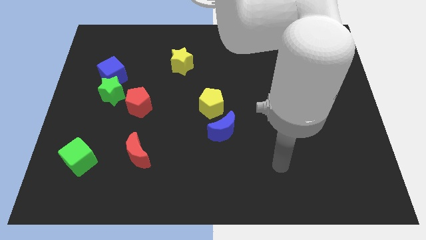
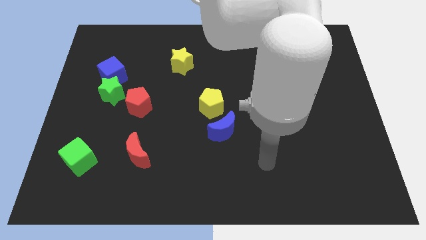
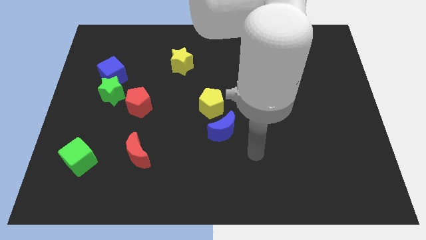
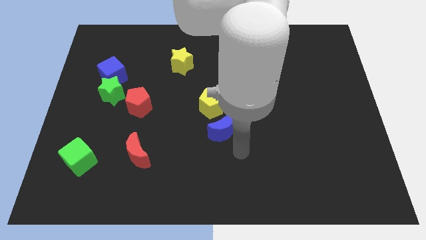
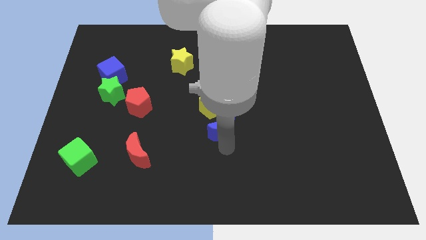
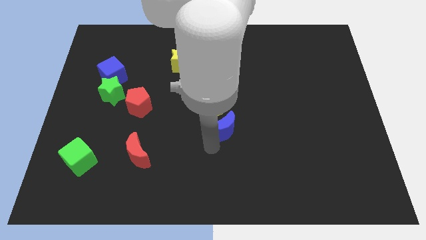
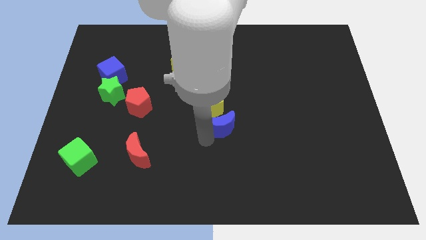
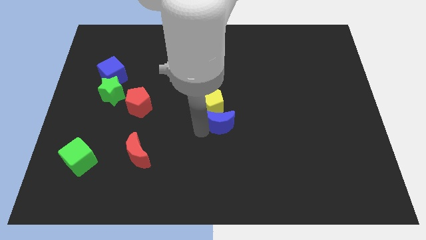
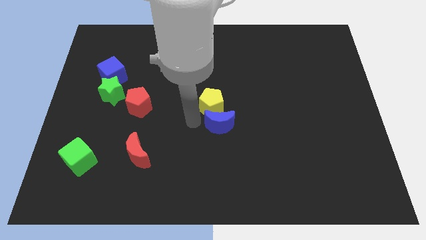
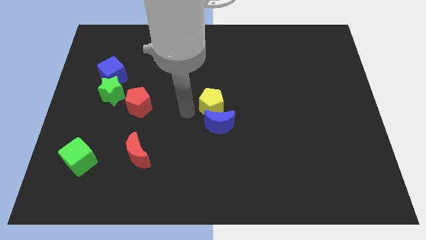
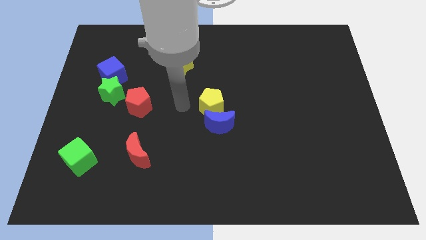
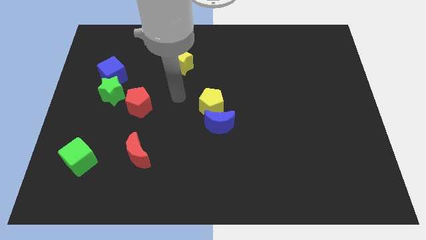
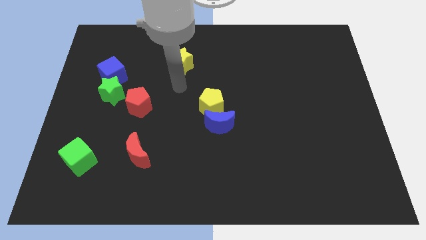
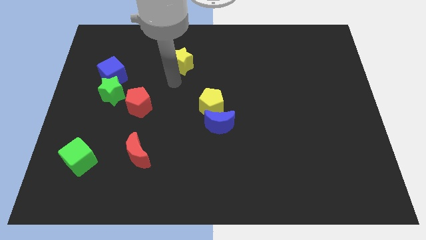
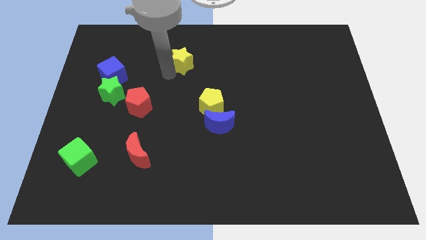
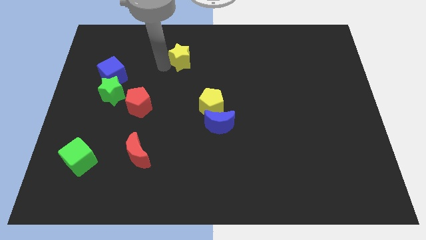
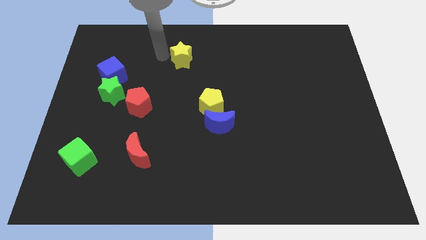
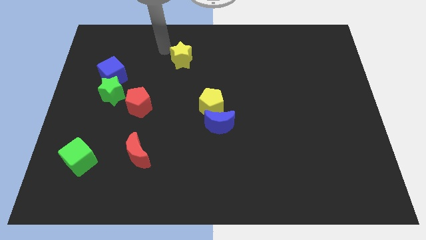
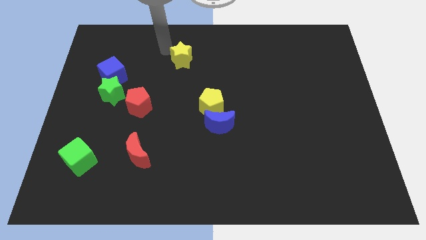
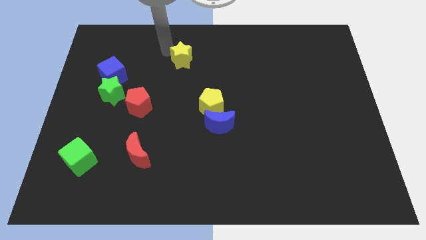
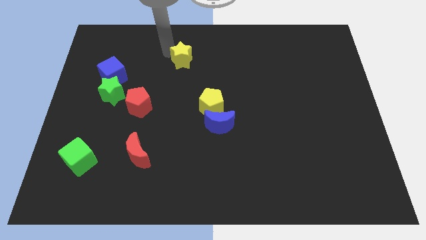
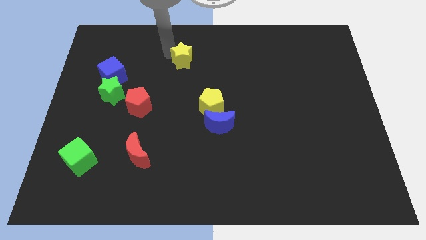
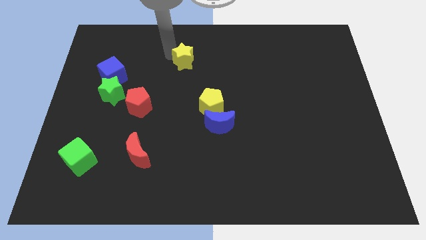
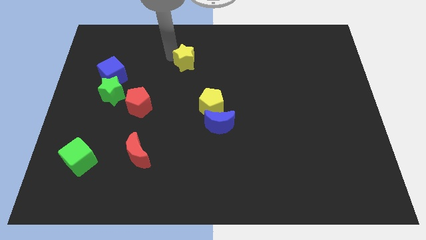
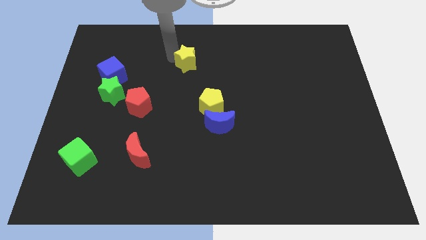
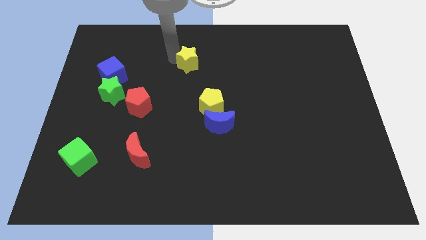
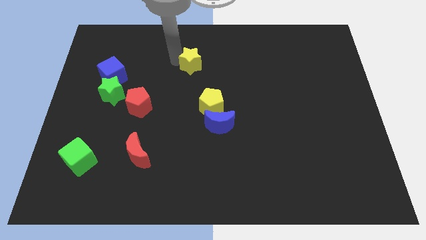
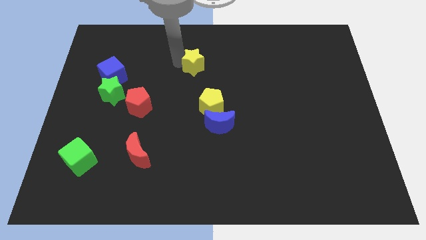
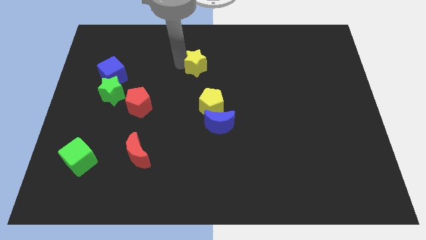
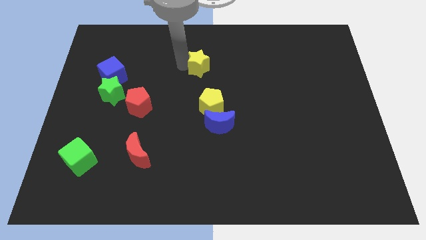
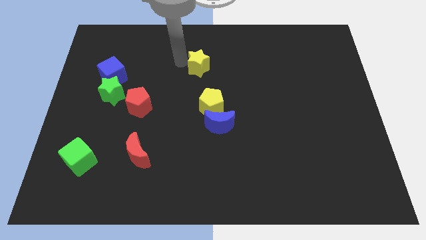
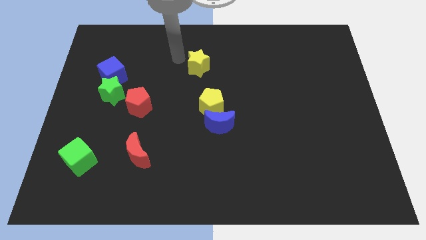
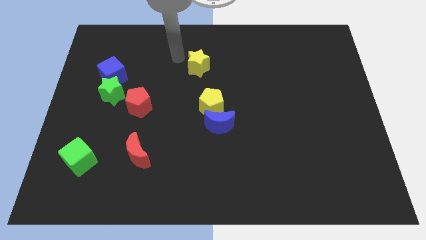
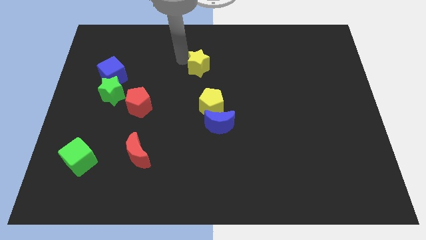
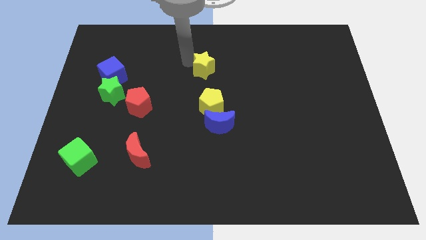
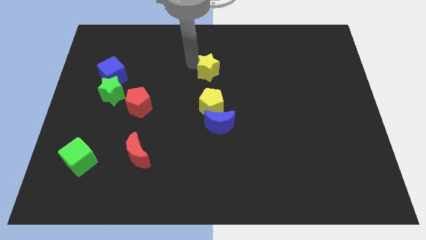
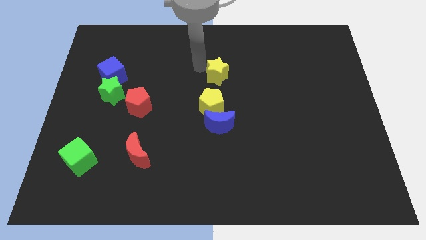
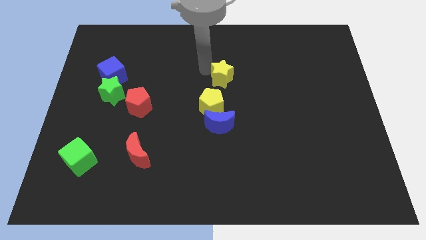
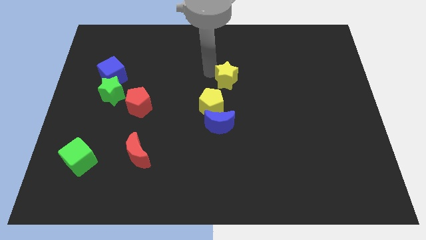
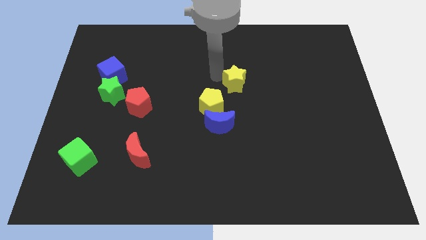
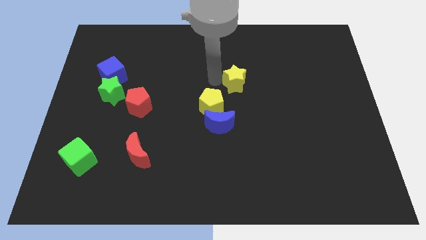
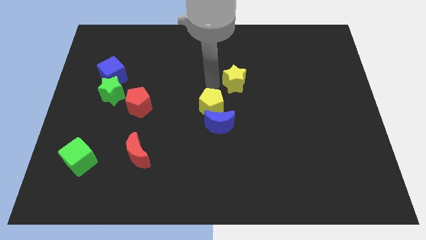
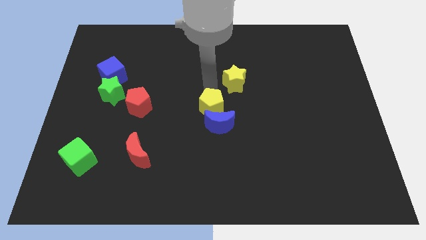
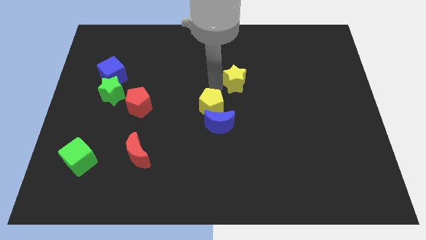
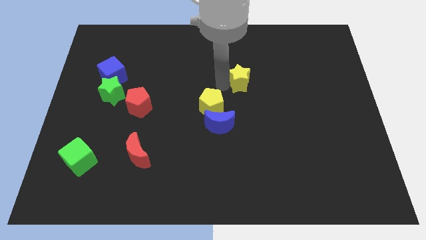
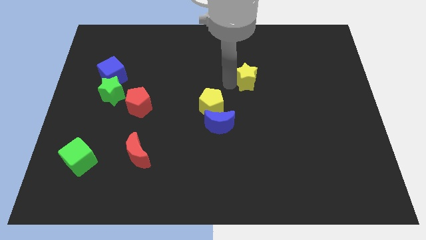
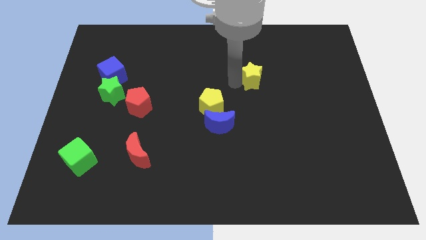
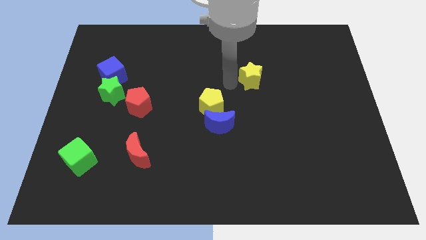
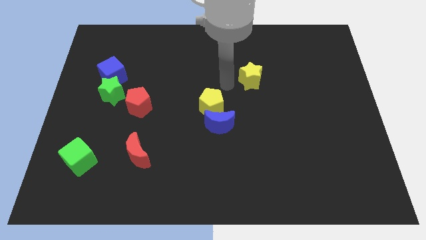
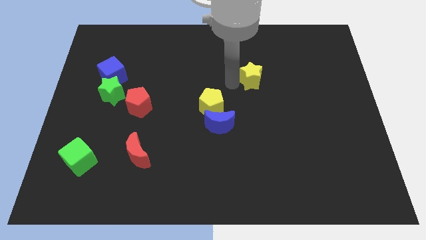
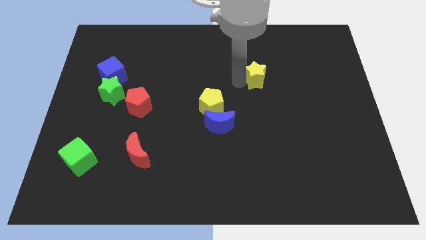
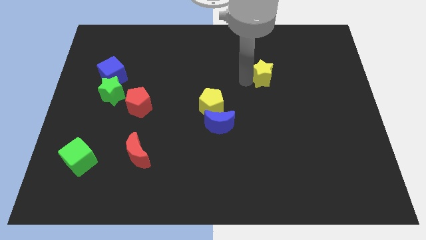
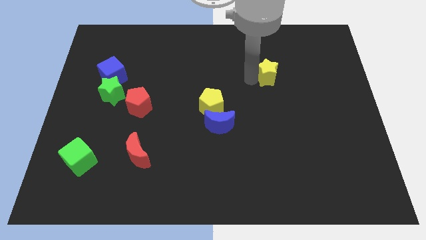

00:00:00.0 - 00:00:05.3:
push the yellow star right

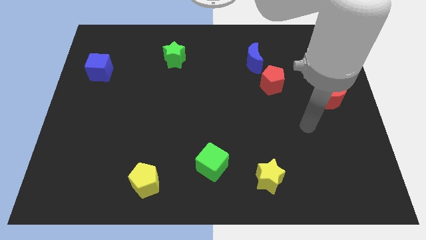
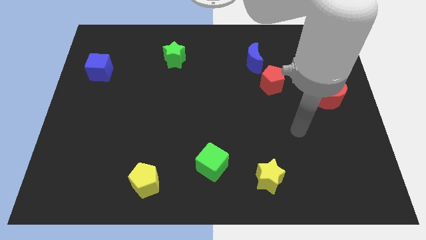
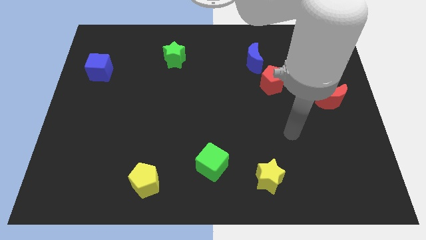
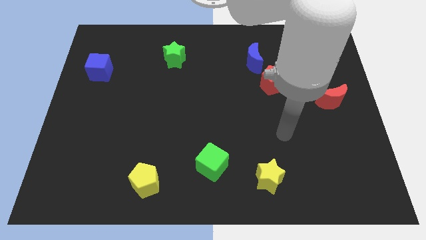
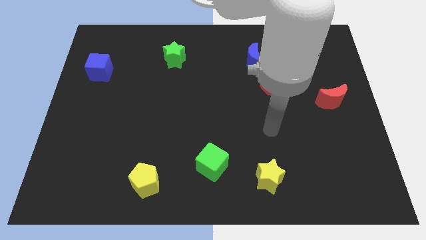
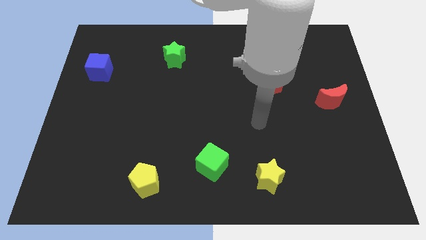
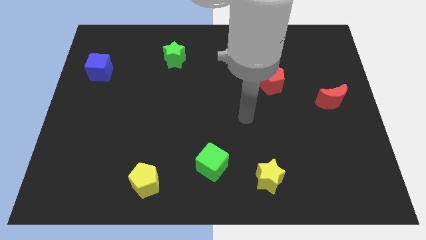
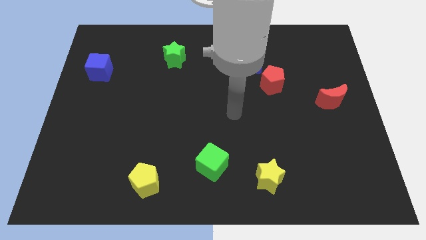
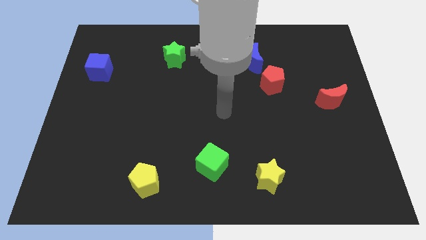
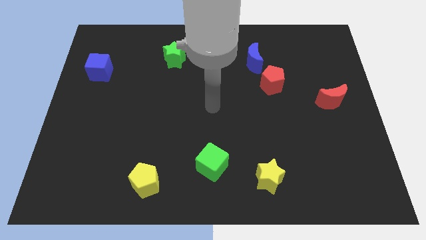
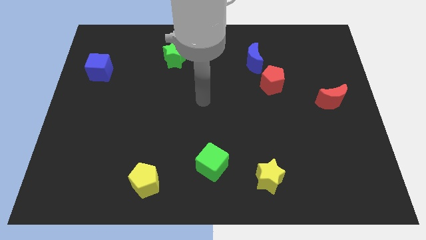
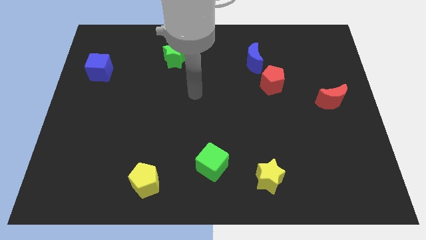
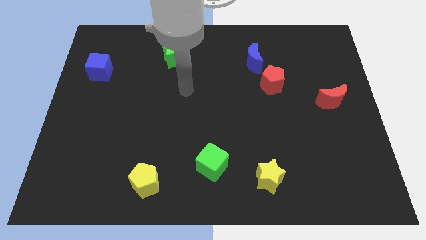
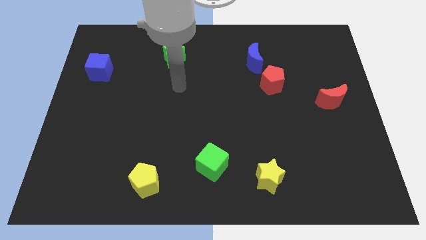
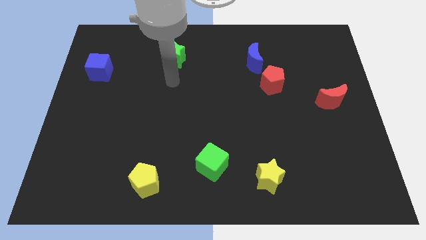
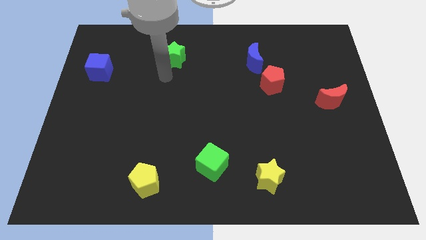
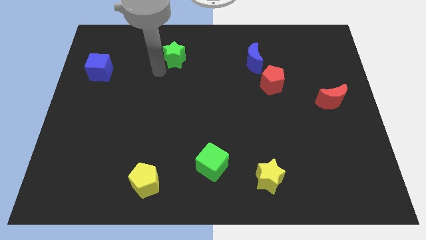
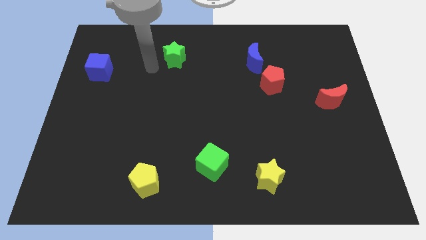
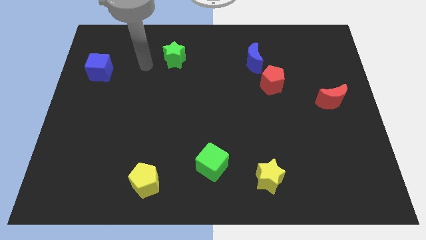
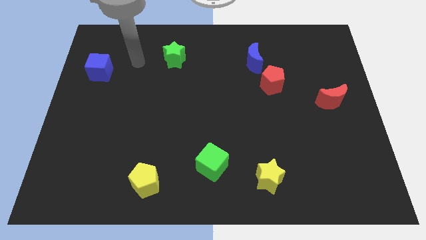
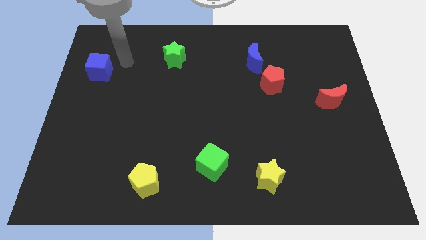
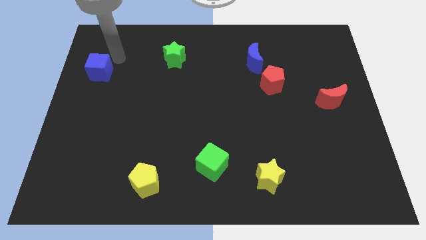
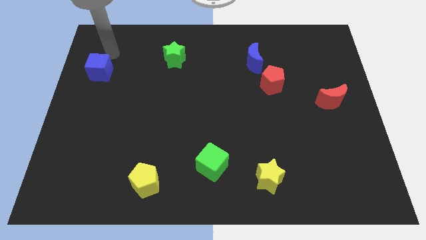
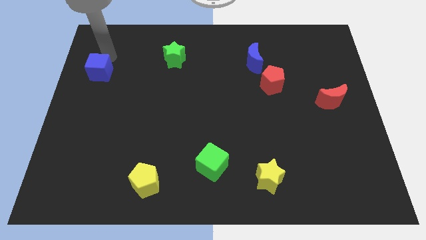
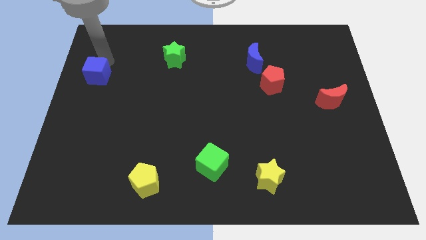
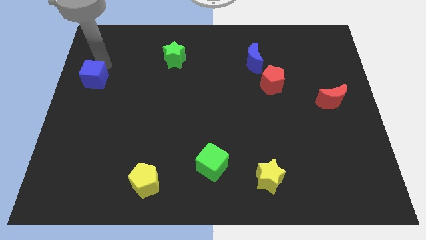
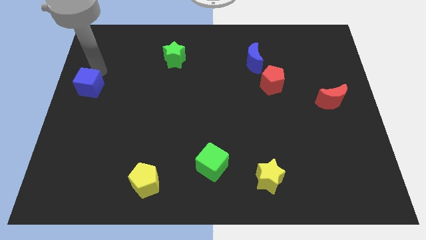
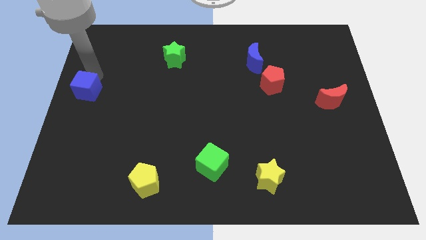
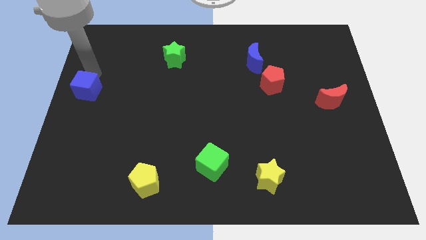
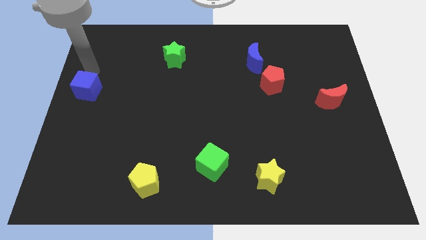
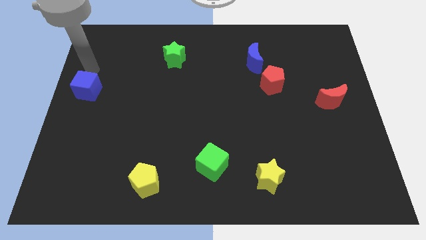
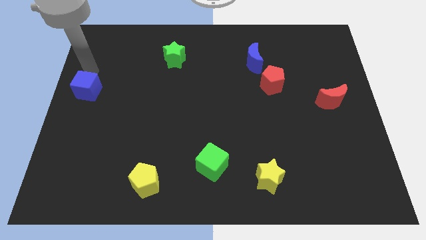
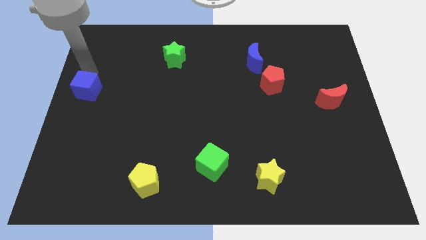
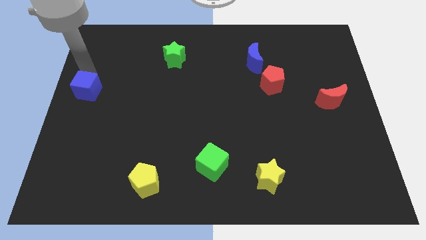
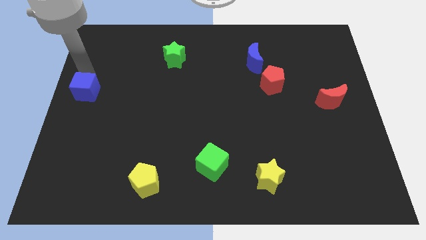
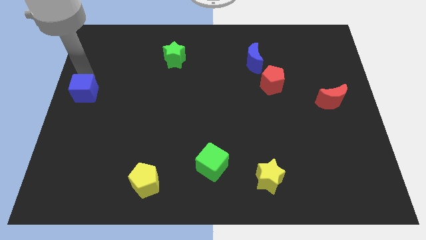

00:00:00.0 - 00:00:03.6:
move the blue cube a little bit down
